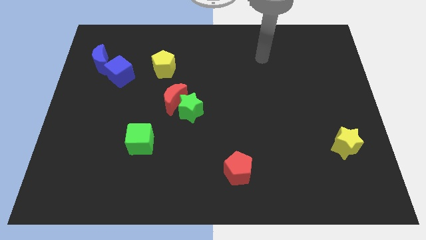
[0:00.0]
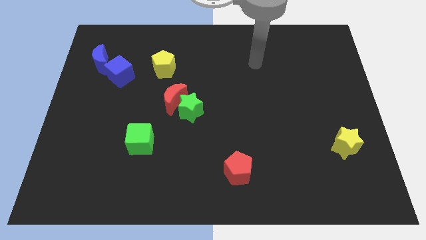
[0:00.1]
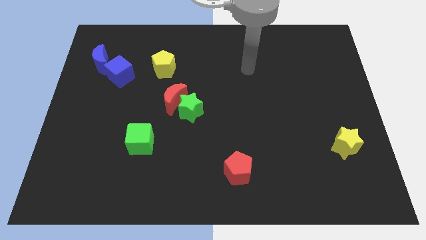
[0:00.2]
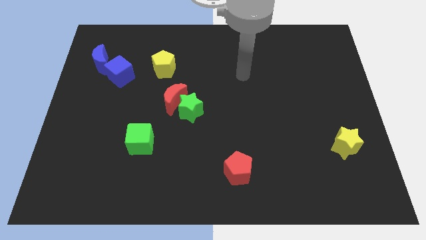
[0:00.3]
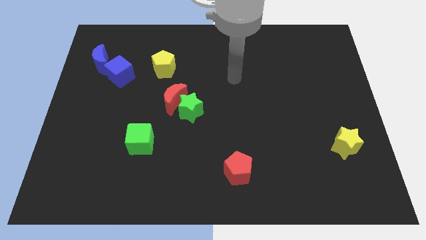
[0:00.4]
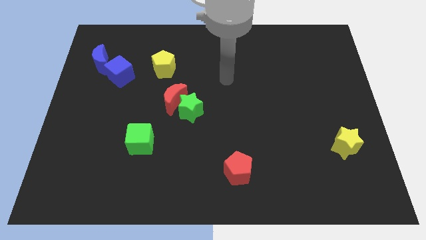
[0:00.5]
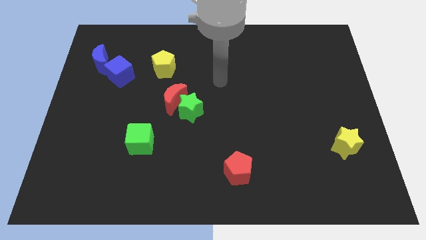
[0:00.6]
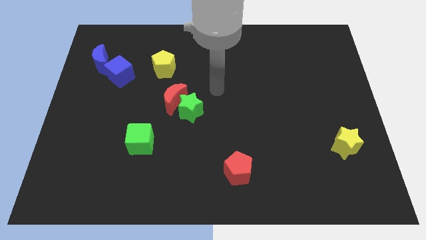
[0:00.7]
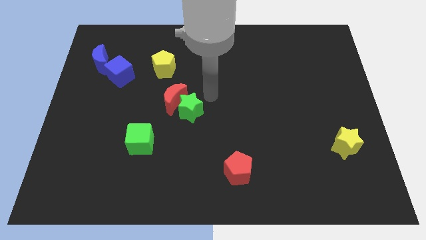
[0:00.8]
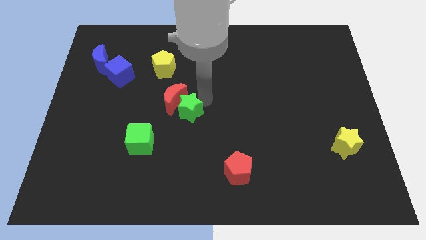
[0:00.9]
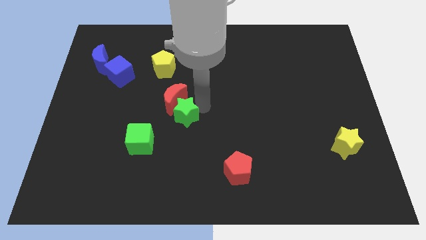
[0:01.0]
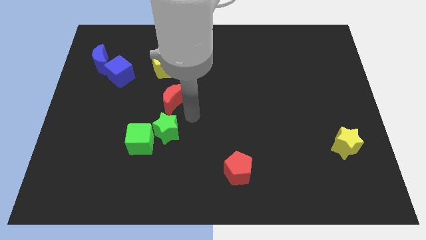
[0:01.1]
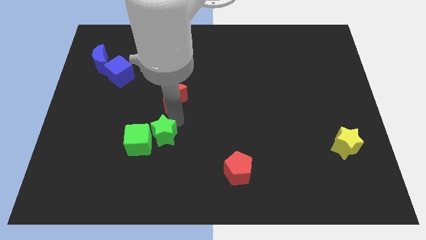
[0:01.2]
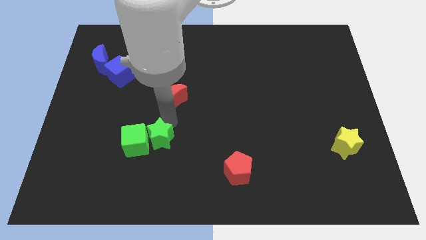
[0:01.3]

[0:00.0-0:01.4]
separate the red moon from the green star

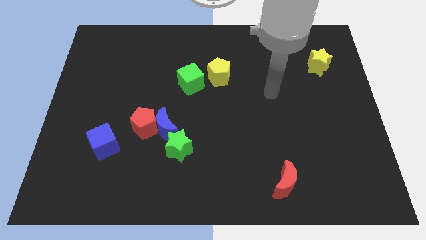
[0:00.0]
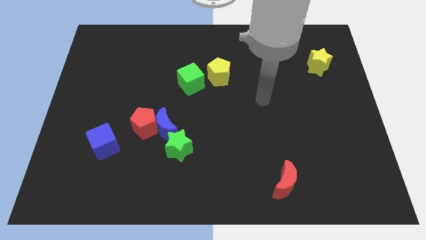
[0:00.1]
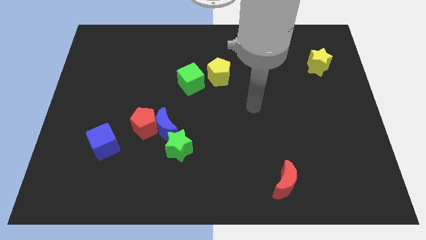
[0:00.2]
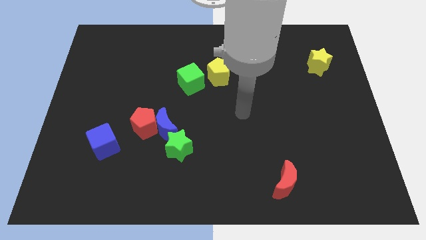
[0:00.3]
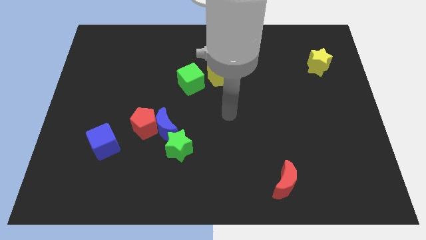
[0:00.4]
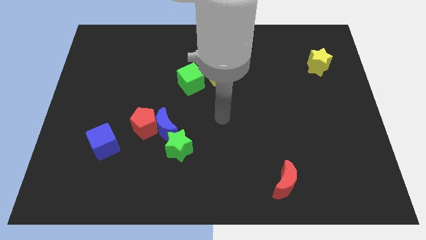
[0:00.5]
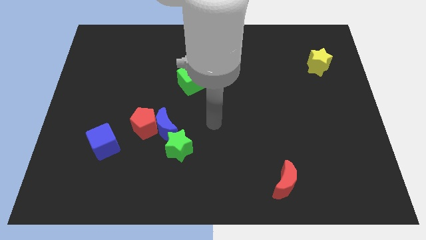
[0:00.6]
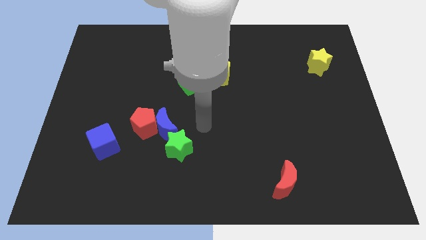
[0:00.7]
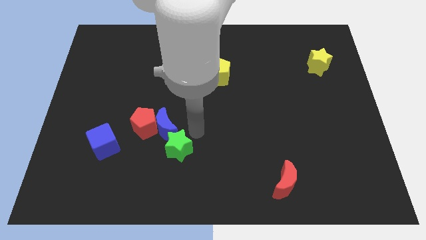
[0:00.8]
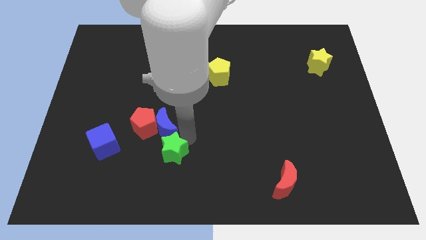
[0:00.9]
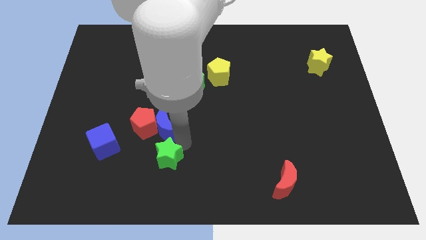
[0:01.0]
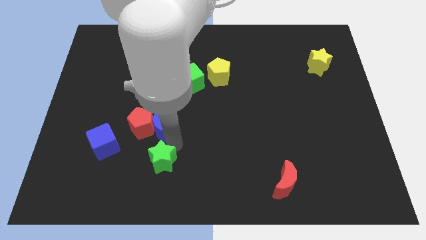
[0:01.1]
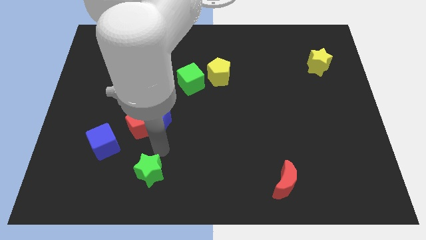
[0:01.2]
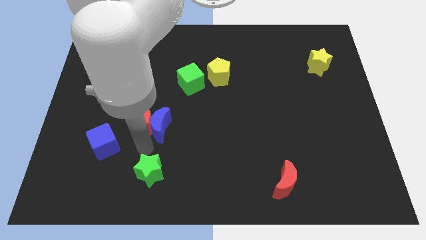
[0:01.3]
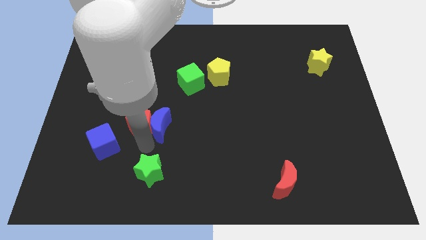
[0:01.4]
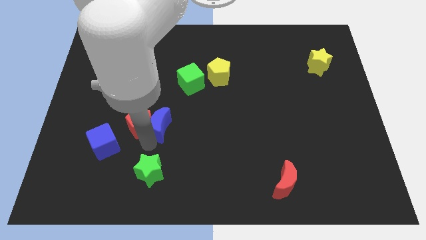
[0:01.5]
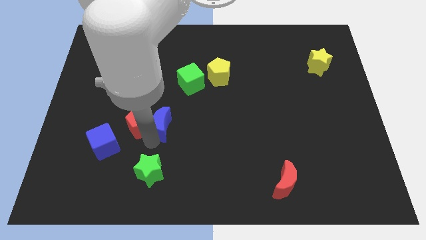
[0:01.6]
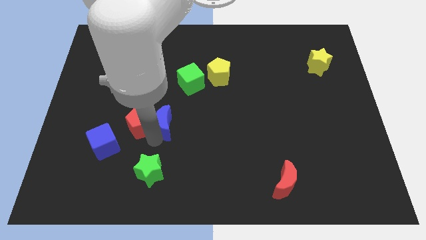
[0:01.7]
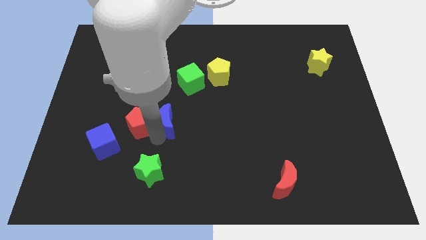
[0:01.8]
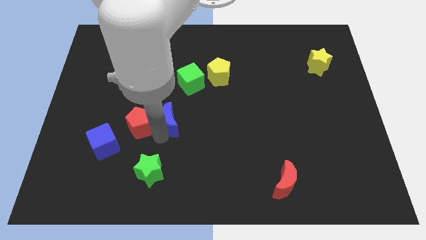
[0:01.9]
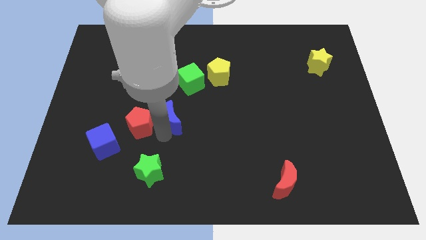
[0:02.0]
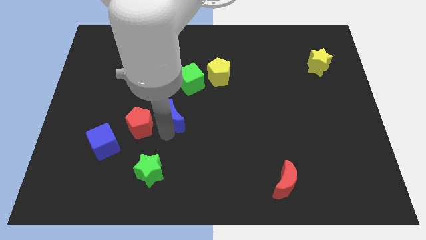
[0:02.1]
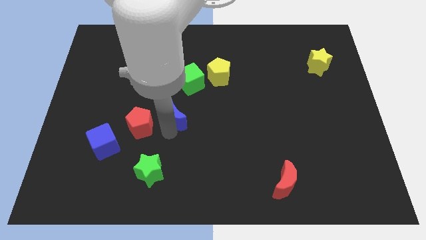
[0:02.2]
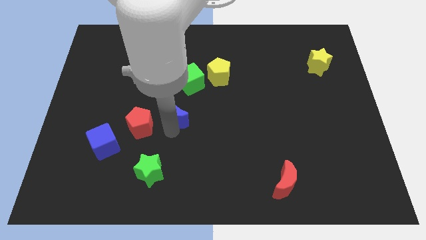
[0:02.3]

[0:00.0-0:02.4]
pull the blue moon apart from the red pentagon and green star

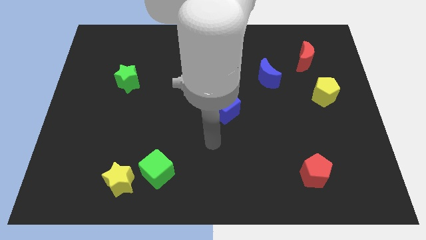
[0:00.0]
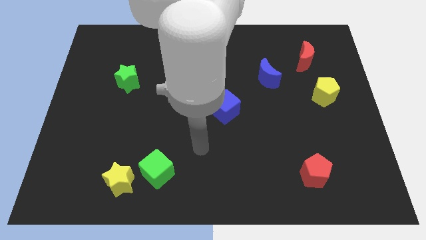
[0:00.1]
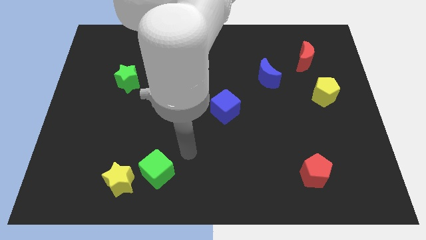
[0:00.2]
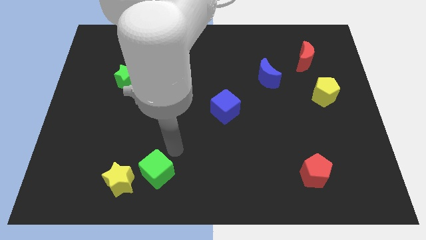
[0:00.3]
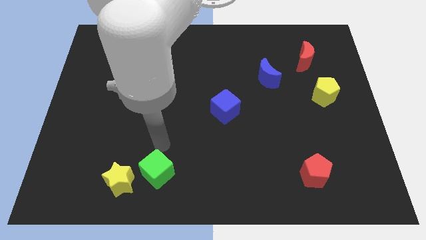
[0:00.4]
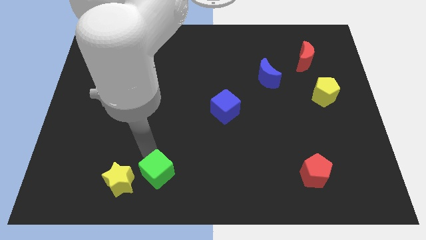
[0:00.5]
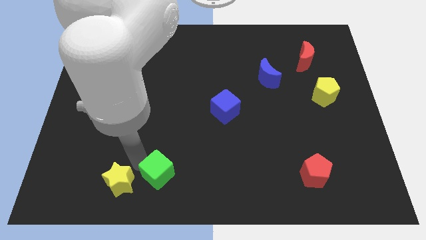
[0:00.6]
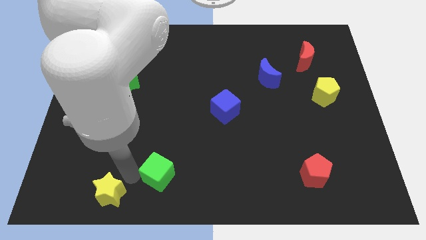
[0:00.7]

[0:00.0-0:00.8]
move the green cube away from the yellow star

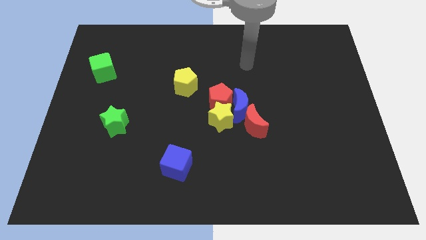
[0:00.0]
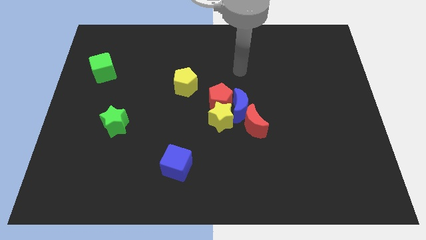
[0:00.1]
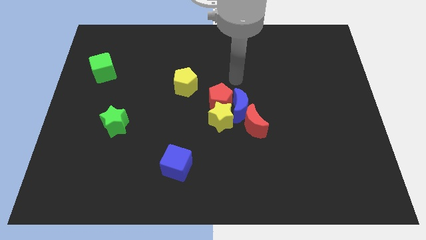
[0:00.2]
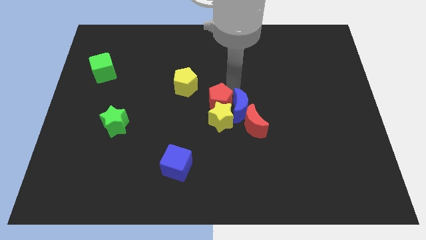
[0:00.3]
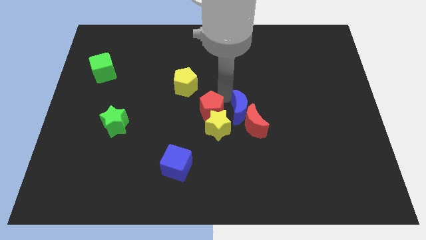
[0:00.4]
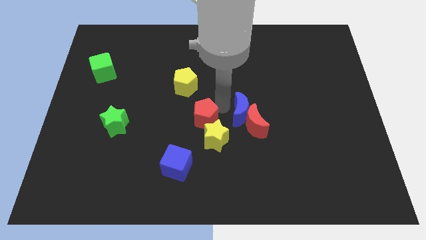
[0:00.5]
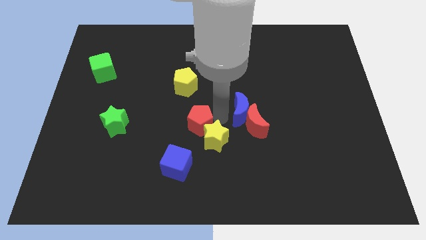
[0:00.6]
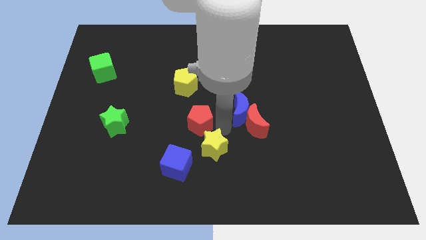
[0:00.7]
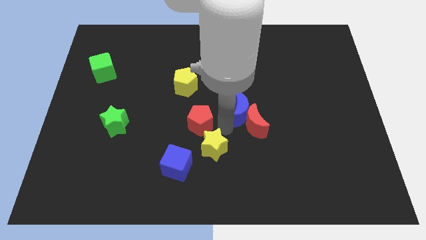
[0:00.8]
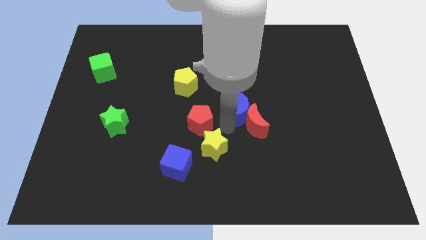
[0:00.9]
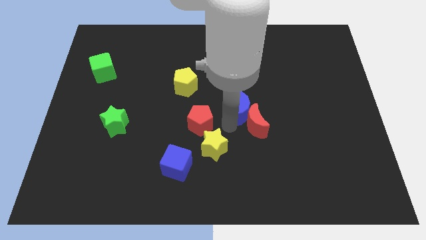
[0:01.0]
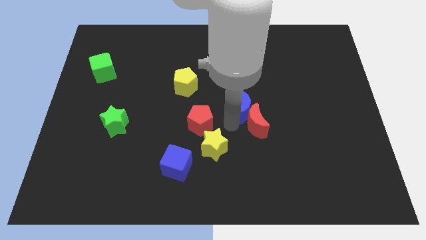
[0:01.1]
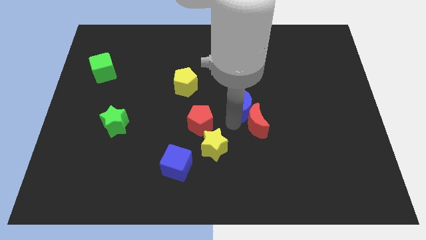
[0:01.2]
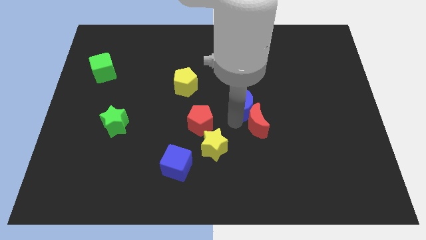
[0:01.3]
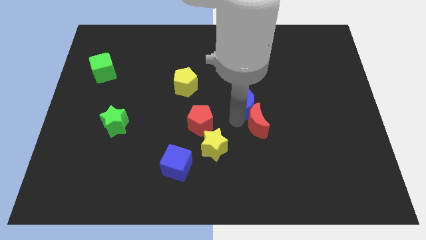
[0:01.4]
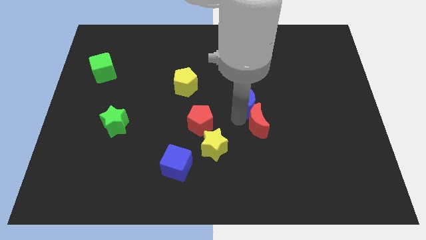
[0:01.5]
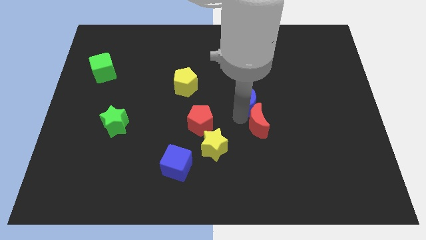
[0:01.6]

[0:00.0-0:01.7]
separate the blue moon from the red pentagon, yellow star, and red moon

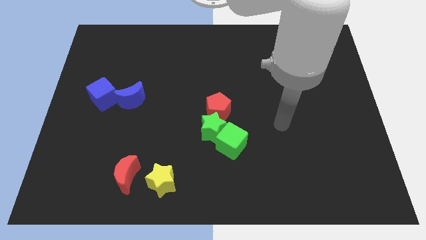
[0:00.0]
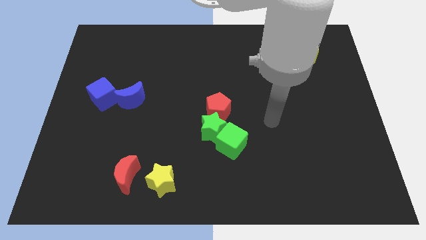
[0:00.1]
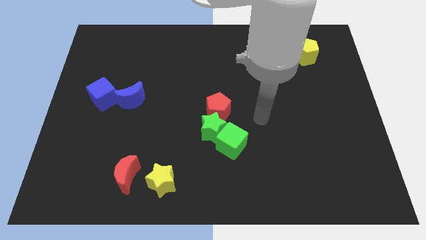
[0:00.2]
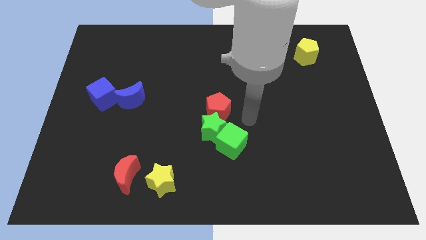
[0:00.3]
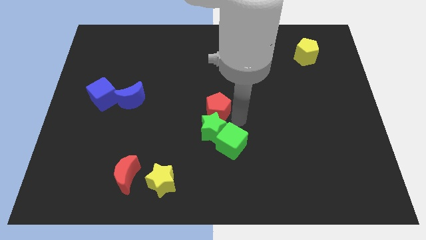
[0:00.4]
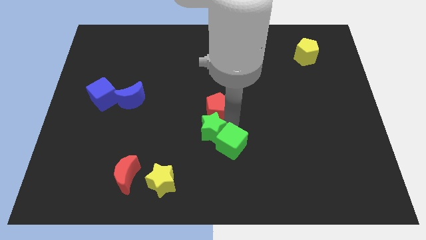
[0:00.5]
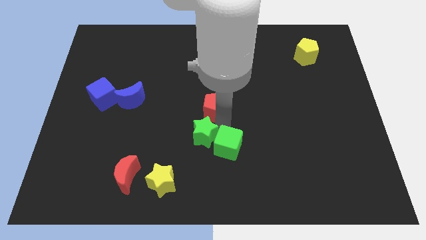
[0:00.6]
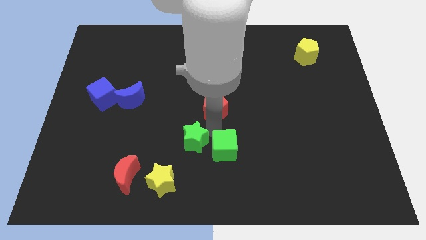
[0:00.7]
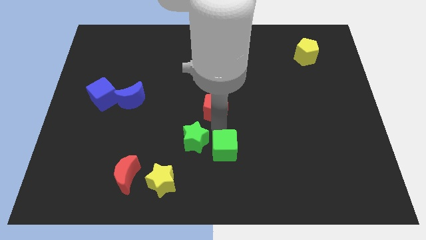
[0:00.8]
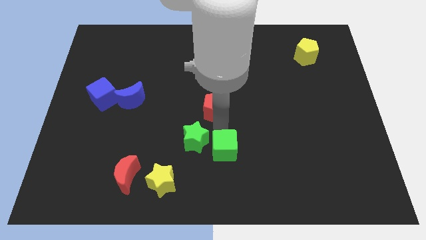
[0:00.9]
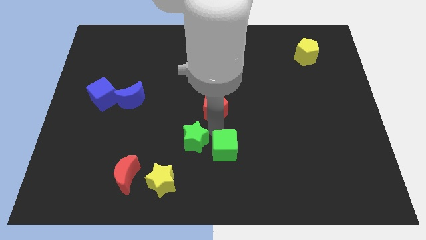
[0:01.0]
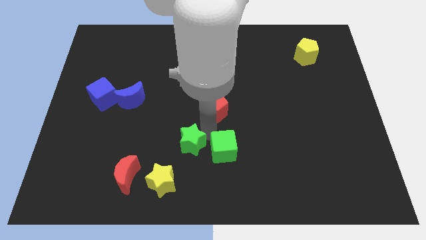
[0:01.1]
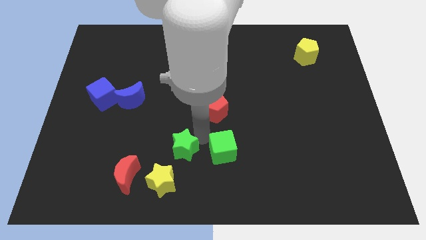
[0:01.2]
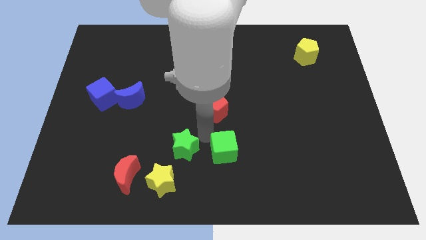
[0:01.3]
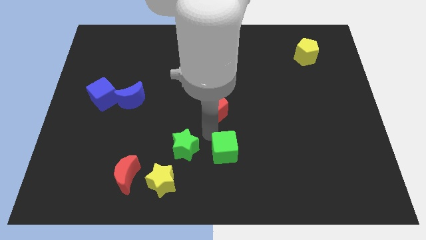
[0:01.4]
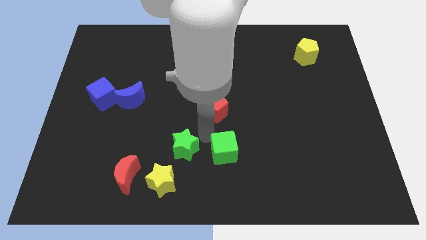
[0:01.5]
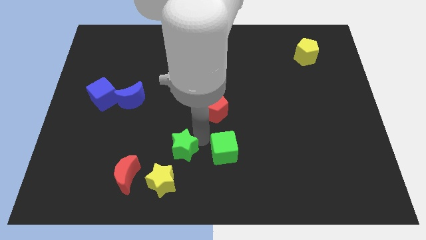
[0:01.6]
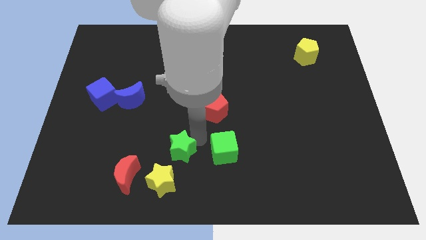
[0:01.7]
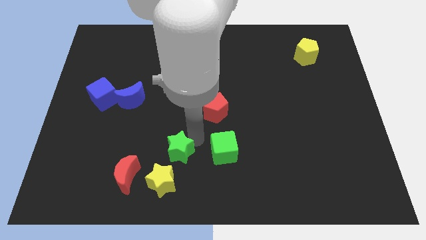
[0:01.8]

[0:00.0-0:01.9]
separate the green star from the green cube and red pentagon

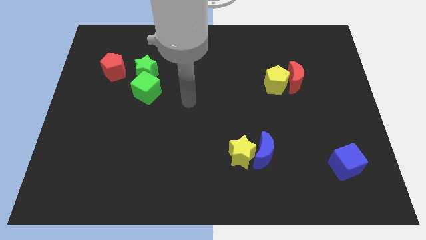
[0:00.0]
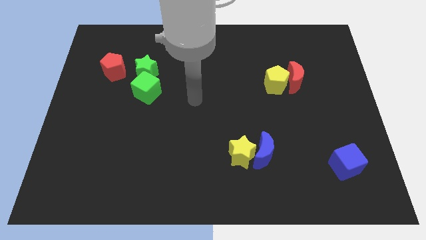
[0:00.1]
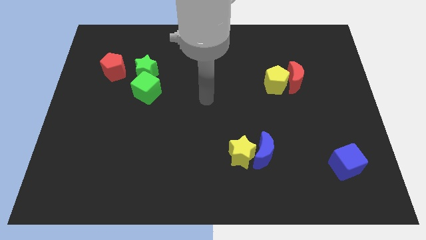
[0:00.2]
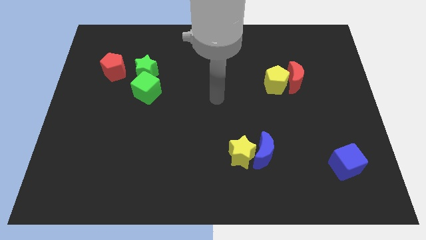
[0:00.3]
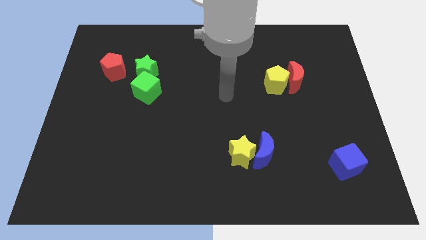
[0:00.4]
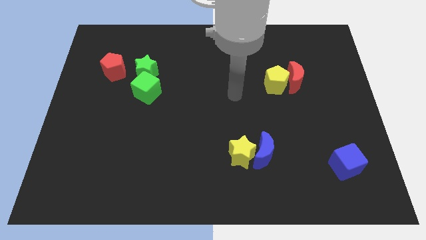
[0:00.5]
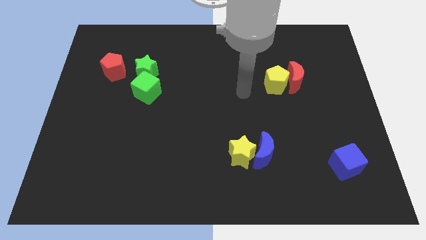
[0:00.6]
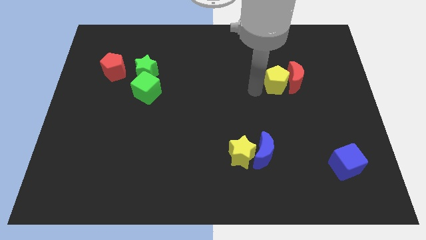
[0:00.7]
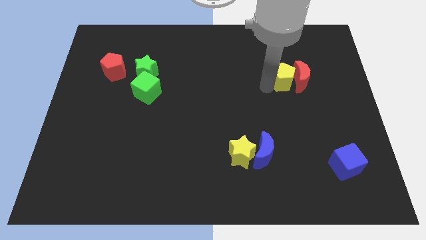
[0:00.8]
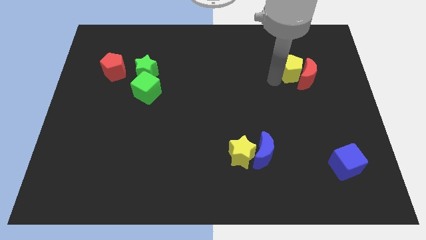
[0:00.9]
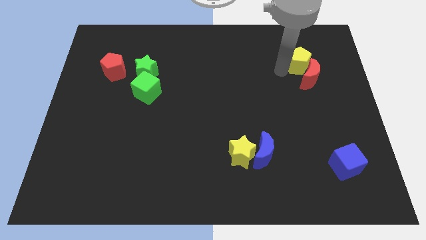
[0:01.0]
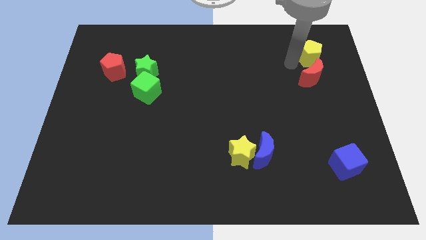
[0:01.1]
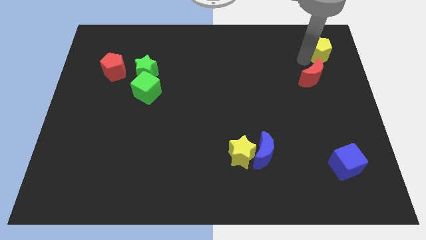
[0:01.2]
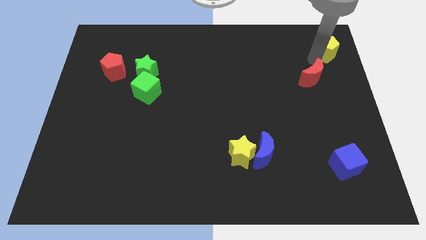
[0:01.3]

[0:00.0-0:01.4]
separate the red moon from the yellow pentagon
